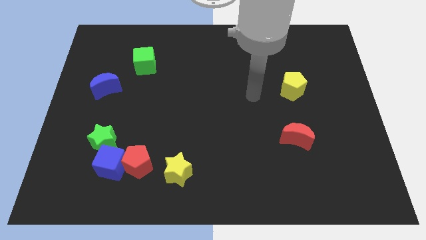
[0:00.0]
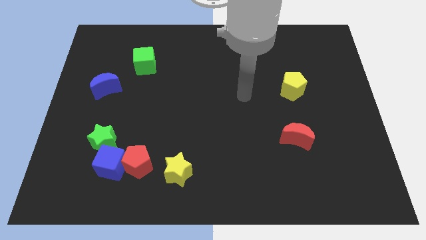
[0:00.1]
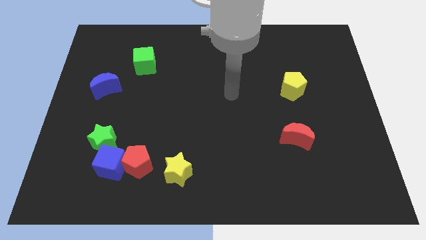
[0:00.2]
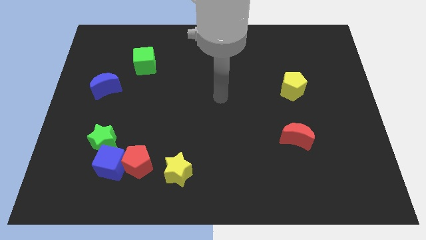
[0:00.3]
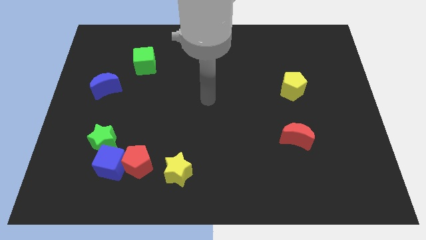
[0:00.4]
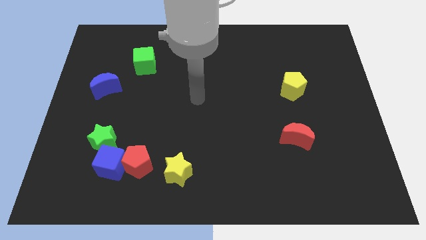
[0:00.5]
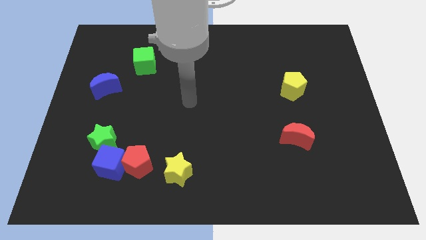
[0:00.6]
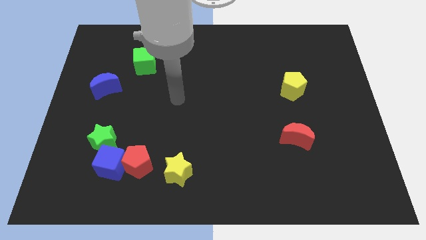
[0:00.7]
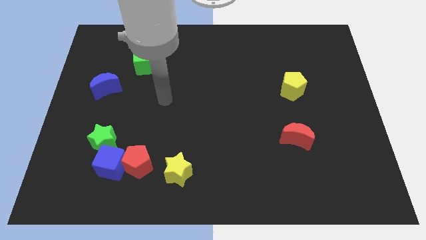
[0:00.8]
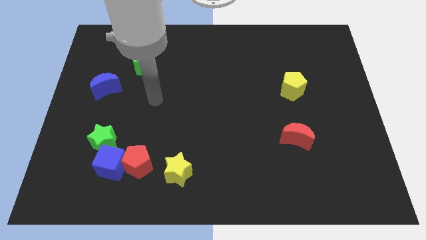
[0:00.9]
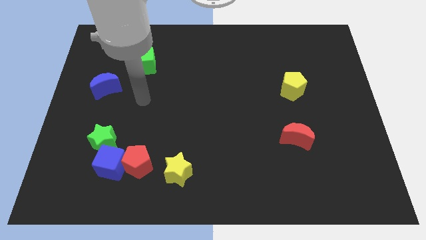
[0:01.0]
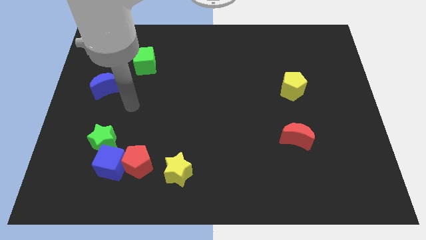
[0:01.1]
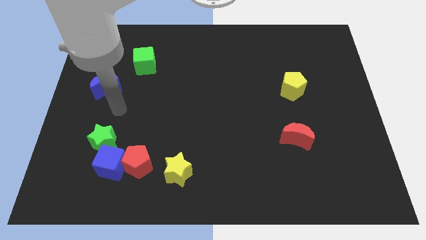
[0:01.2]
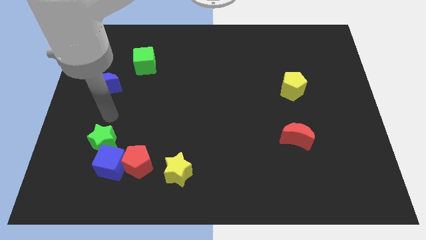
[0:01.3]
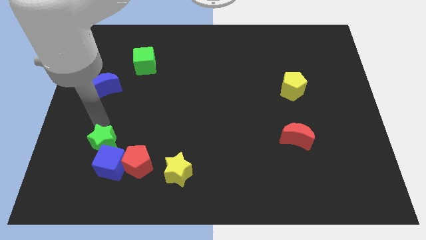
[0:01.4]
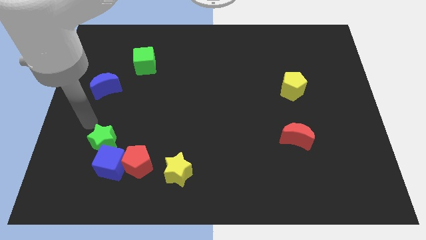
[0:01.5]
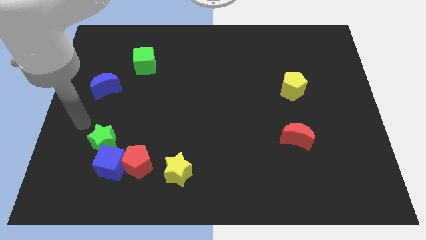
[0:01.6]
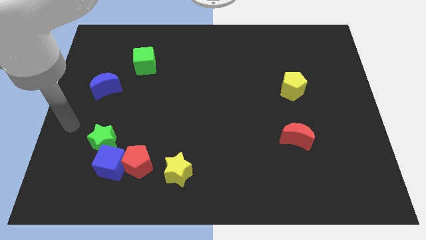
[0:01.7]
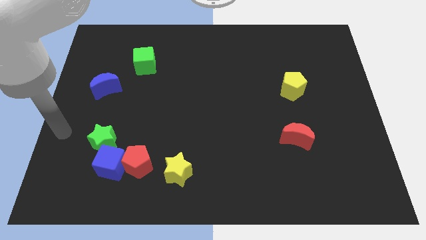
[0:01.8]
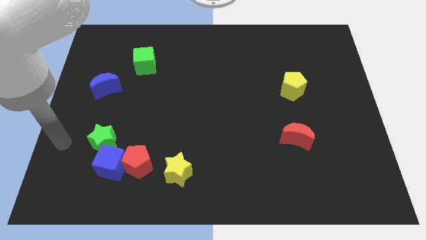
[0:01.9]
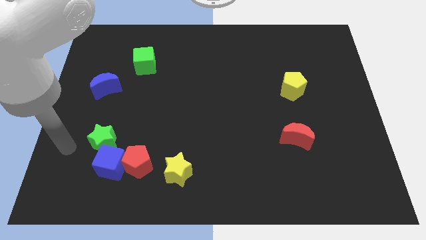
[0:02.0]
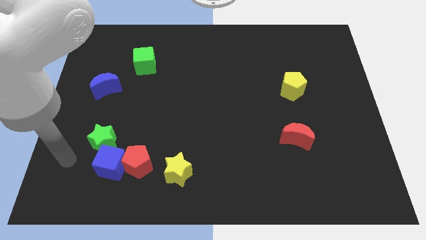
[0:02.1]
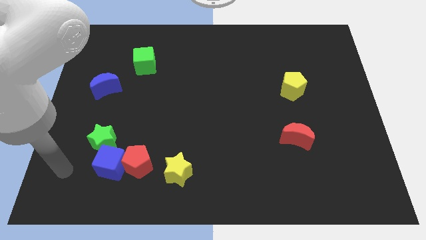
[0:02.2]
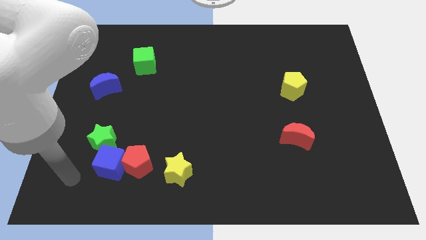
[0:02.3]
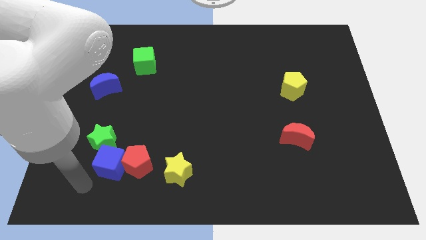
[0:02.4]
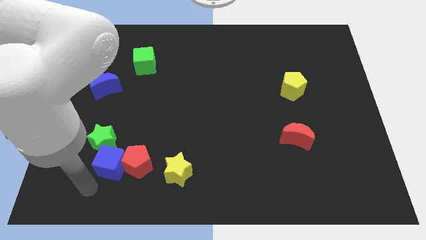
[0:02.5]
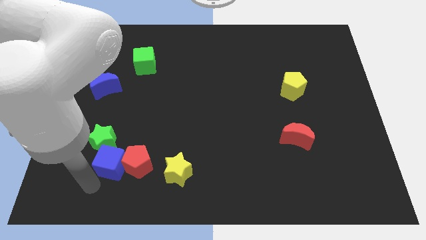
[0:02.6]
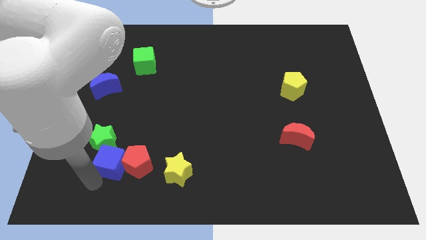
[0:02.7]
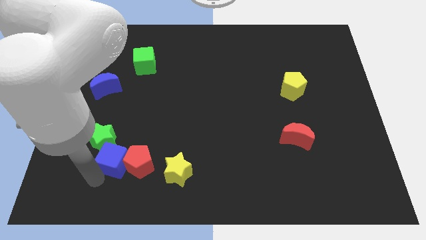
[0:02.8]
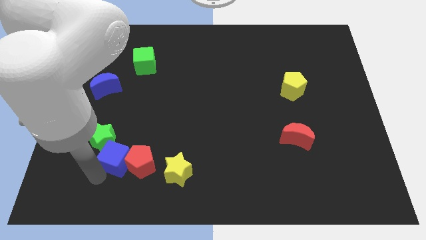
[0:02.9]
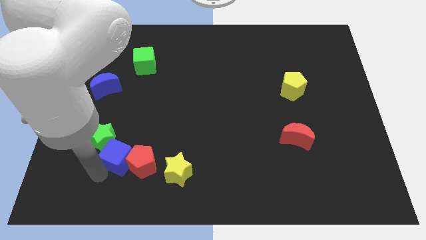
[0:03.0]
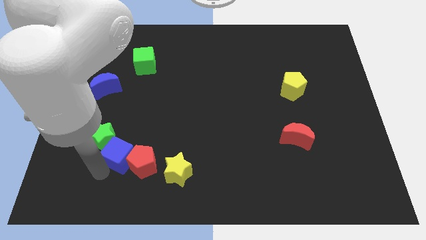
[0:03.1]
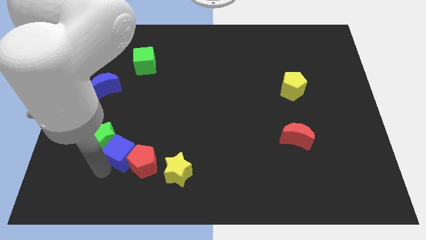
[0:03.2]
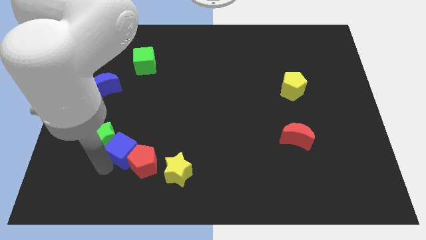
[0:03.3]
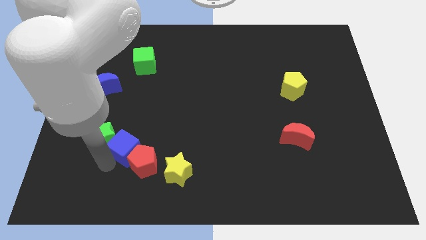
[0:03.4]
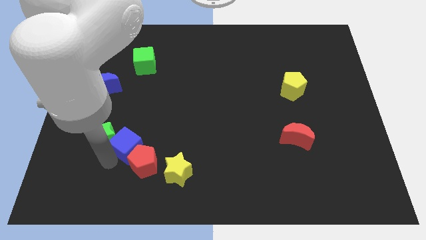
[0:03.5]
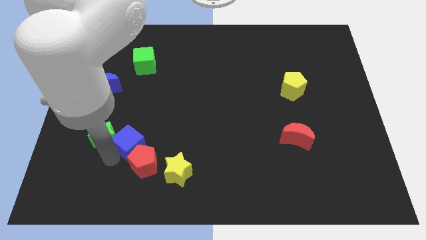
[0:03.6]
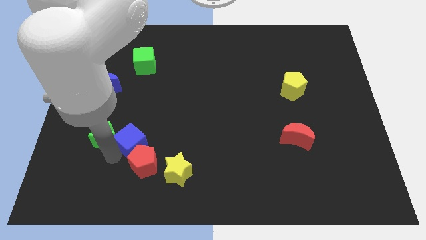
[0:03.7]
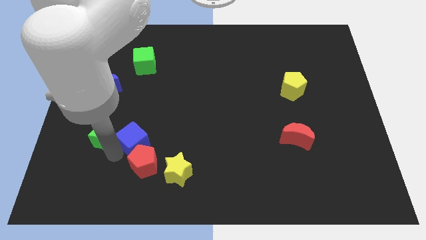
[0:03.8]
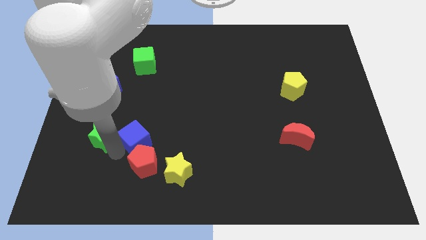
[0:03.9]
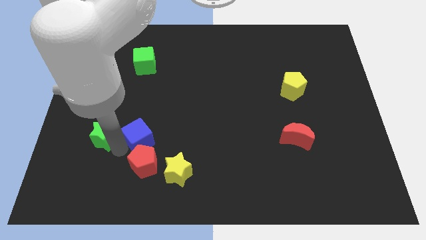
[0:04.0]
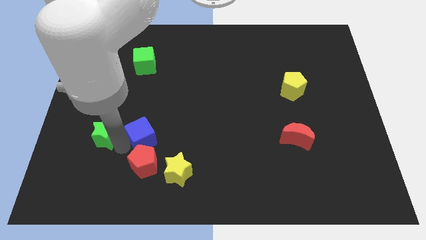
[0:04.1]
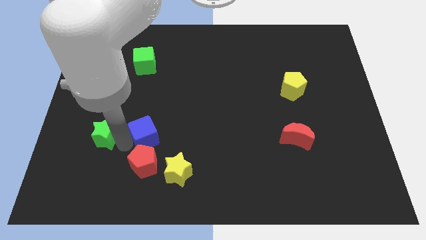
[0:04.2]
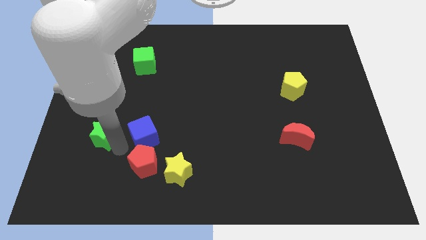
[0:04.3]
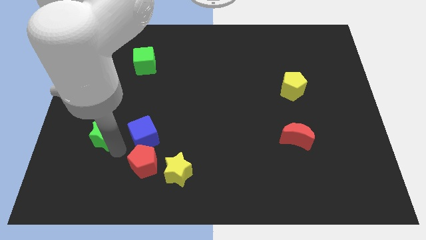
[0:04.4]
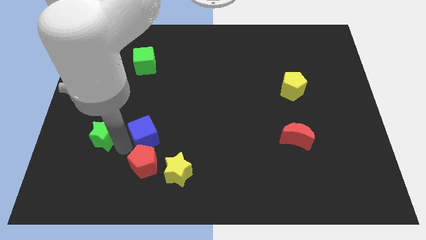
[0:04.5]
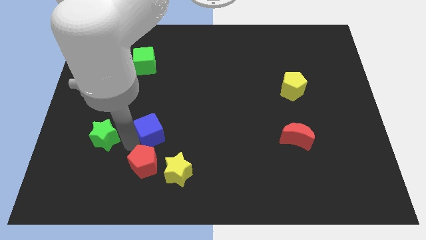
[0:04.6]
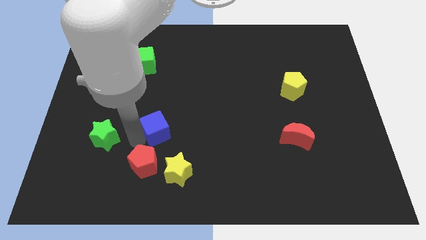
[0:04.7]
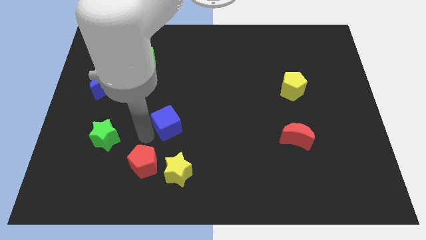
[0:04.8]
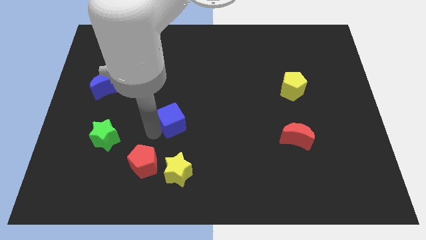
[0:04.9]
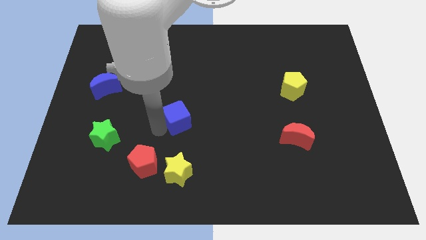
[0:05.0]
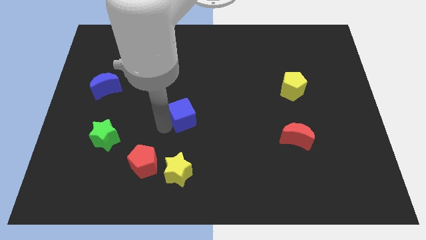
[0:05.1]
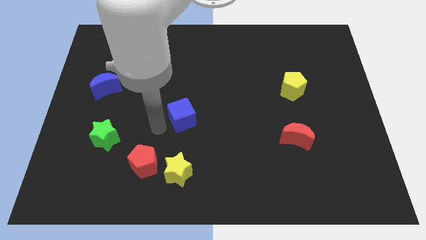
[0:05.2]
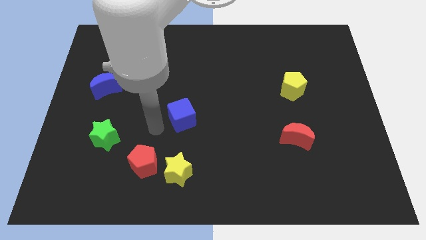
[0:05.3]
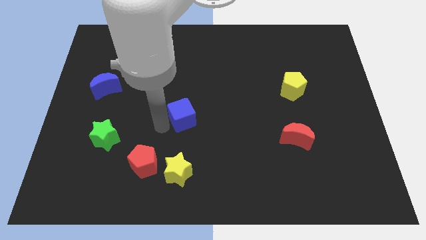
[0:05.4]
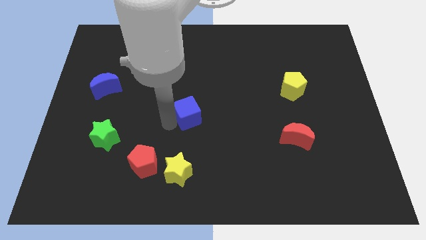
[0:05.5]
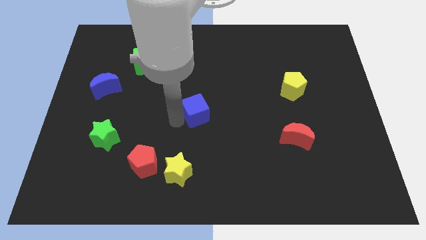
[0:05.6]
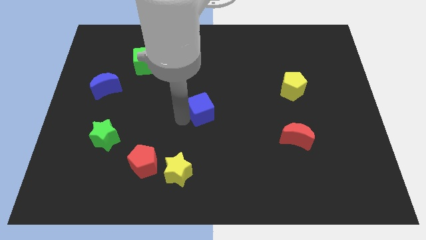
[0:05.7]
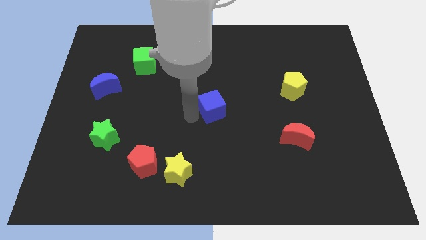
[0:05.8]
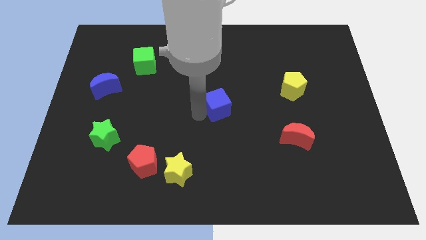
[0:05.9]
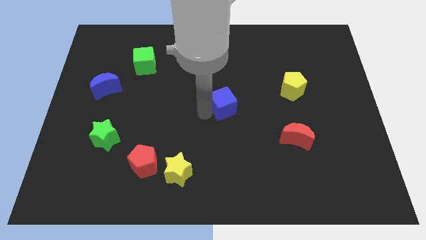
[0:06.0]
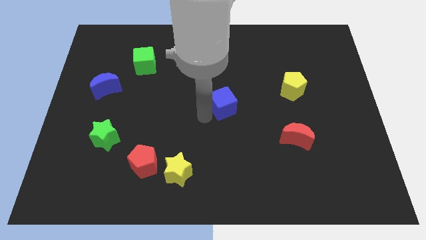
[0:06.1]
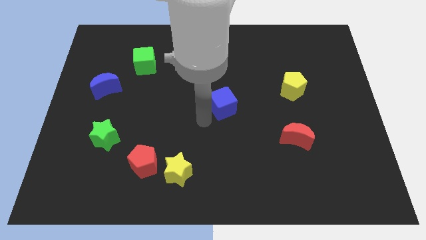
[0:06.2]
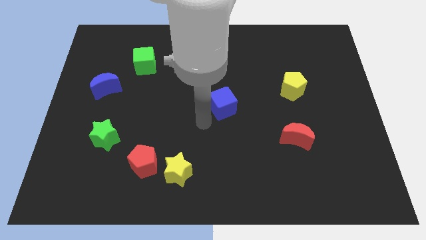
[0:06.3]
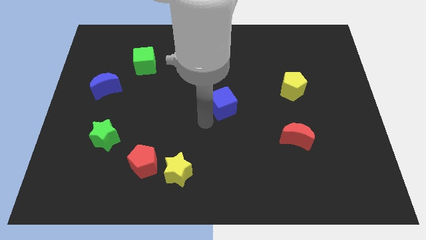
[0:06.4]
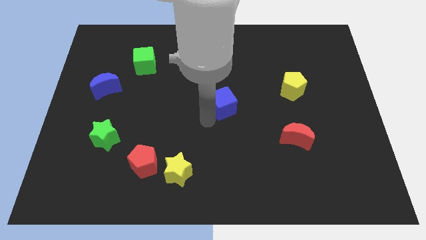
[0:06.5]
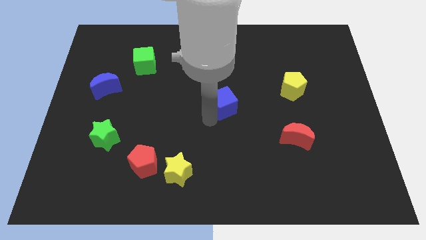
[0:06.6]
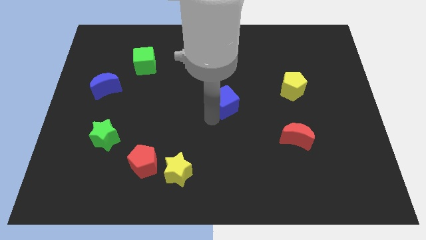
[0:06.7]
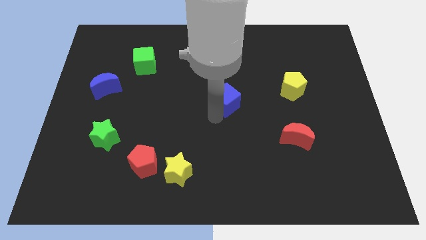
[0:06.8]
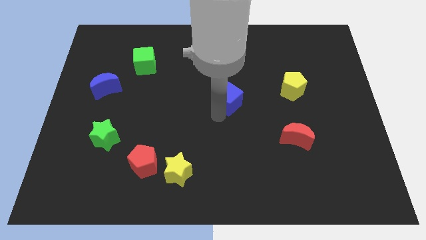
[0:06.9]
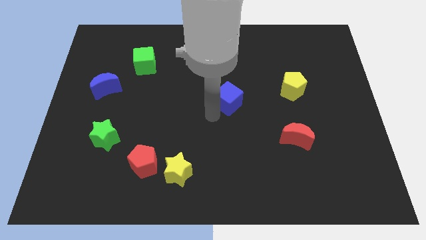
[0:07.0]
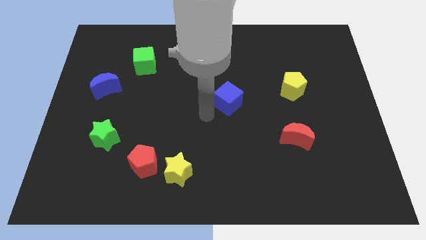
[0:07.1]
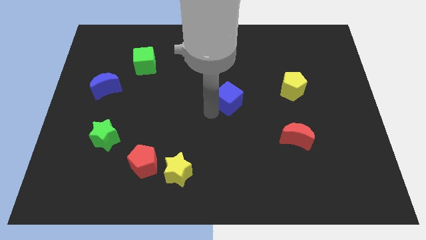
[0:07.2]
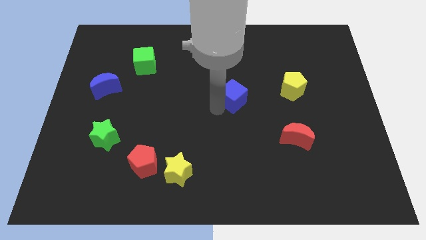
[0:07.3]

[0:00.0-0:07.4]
push the blue cube just left of the yellow pentagon
